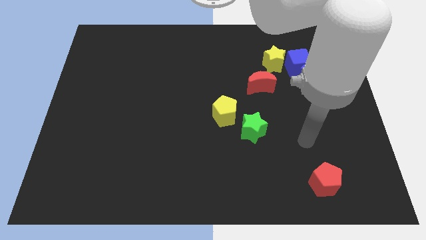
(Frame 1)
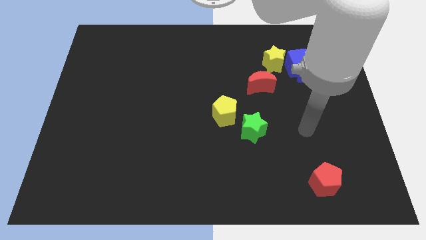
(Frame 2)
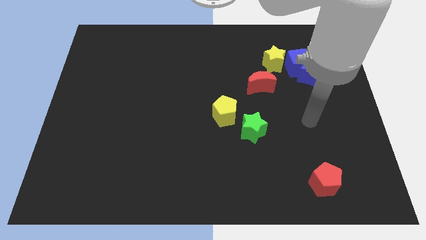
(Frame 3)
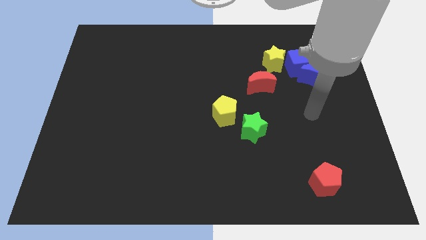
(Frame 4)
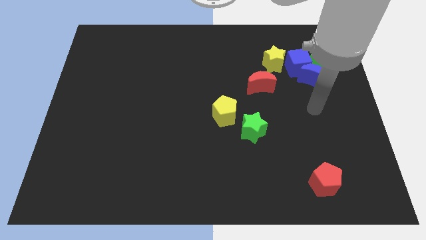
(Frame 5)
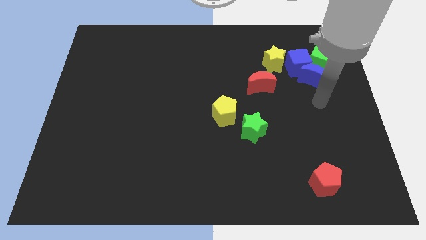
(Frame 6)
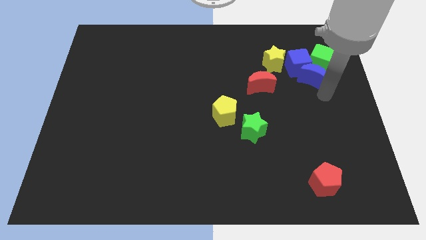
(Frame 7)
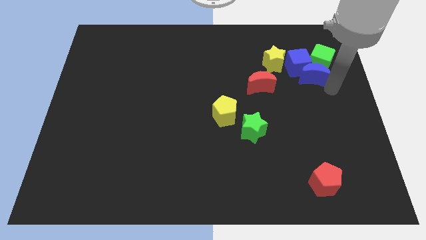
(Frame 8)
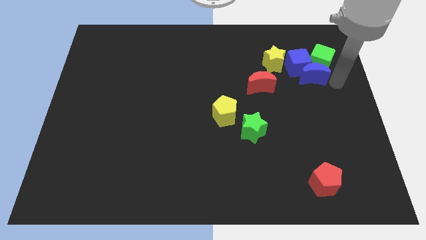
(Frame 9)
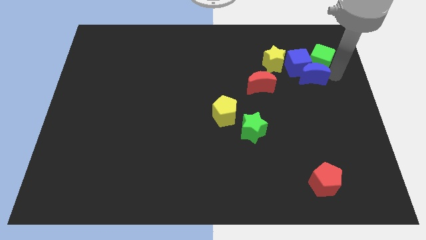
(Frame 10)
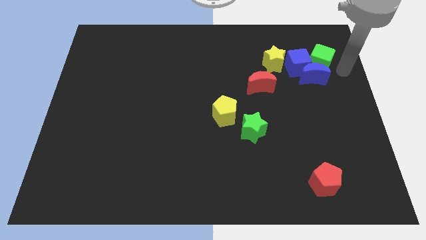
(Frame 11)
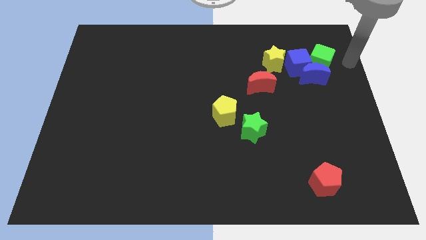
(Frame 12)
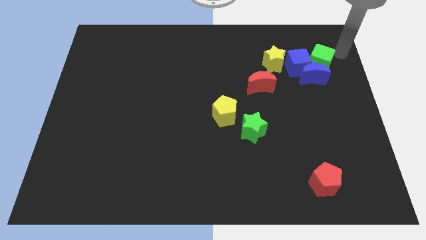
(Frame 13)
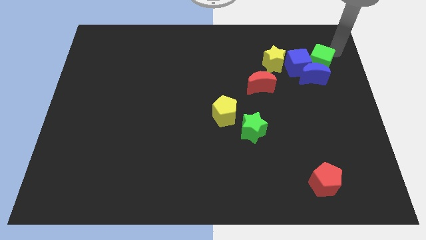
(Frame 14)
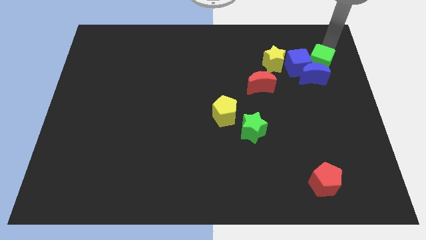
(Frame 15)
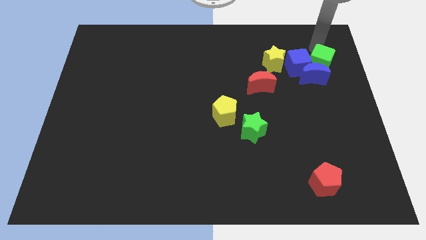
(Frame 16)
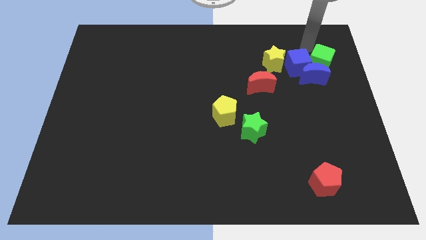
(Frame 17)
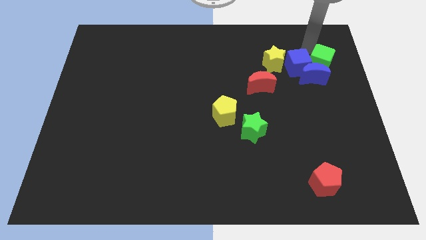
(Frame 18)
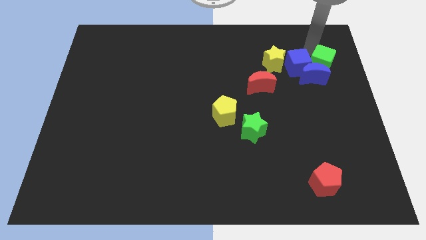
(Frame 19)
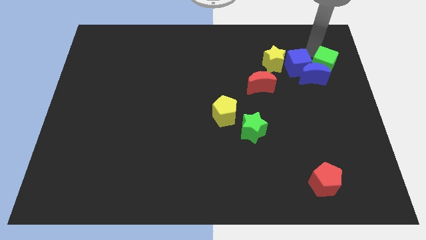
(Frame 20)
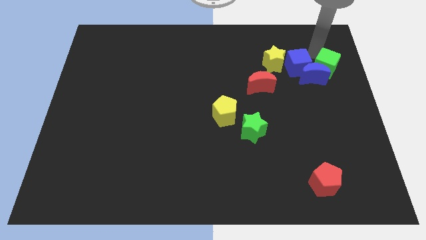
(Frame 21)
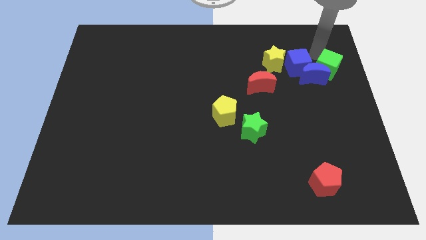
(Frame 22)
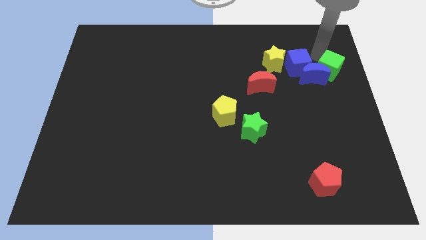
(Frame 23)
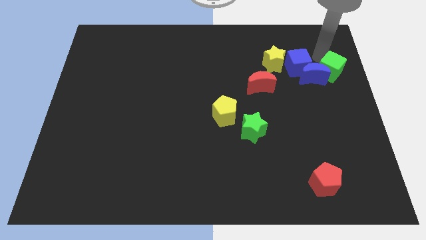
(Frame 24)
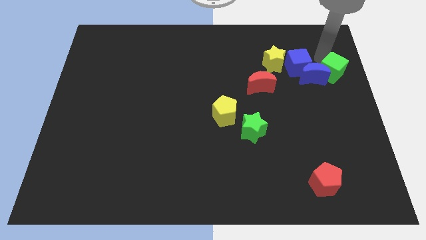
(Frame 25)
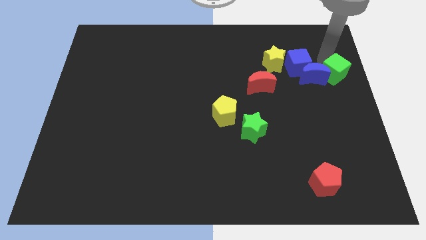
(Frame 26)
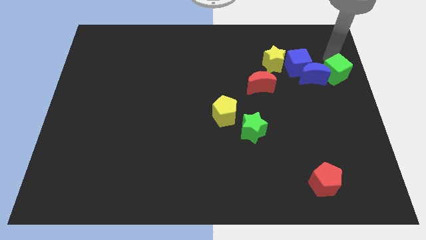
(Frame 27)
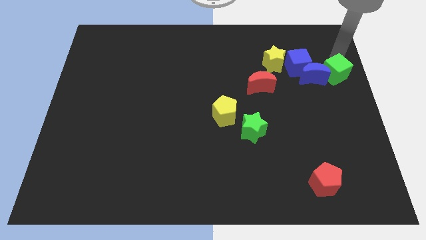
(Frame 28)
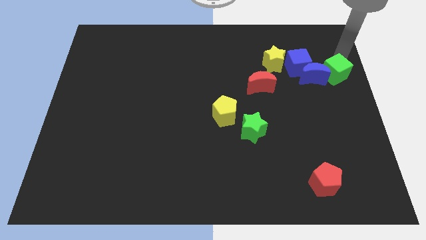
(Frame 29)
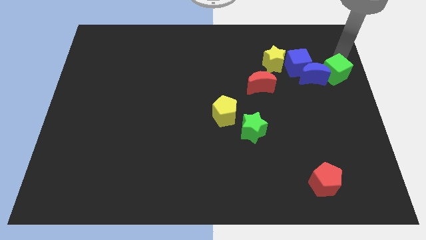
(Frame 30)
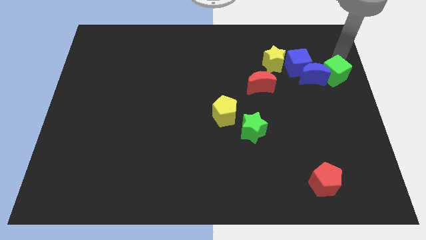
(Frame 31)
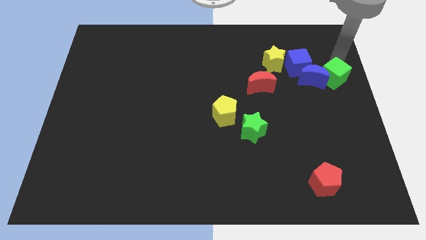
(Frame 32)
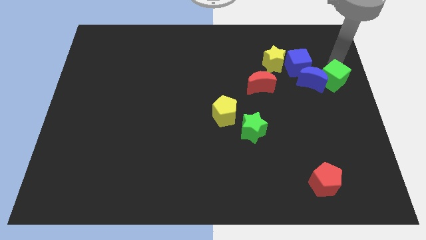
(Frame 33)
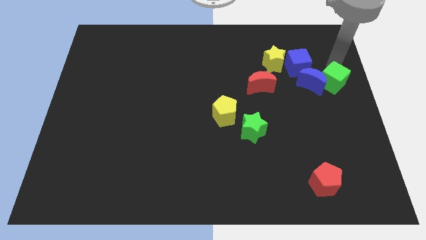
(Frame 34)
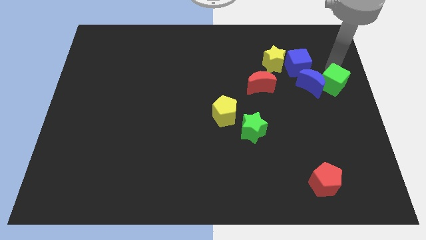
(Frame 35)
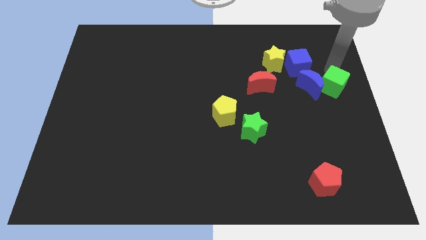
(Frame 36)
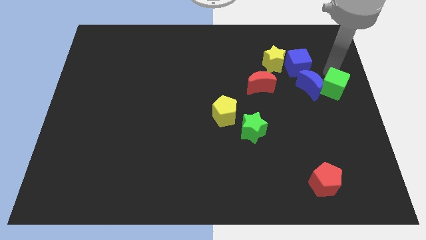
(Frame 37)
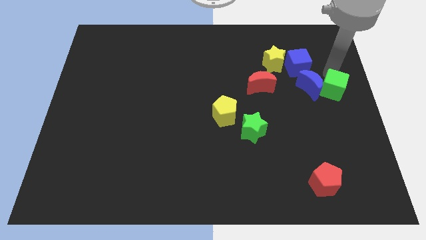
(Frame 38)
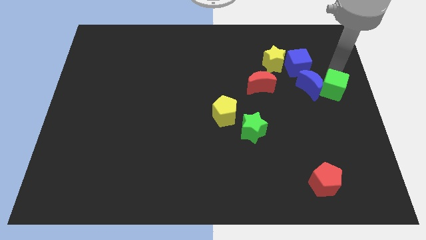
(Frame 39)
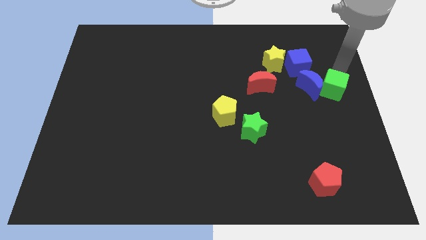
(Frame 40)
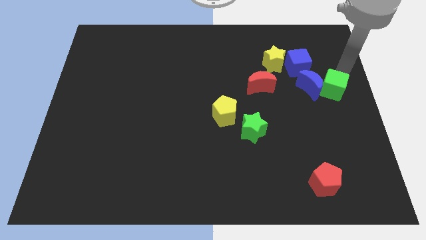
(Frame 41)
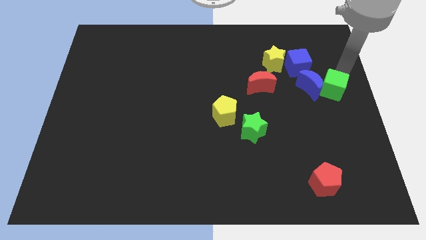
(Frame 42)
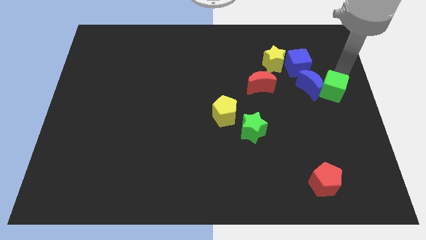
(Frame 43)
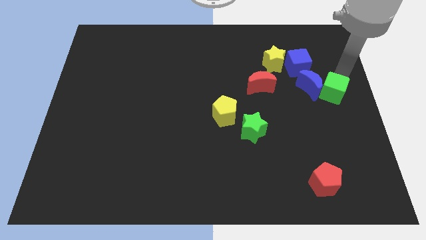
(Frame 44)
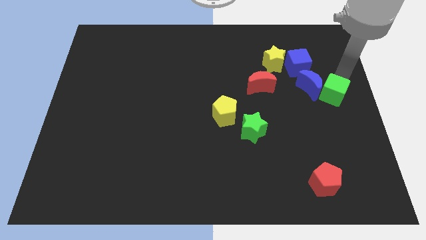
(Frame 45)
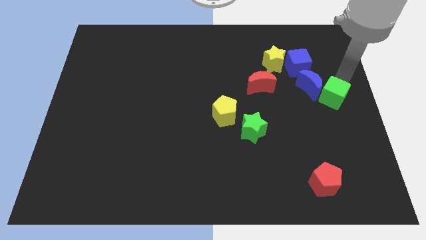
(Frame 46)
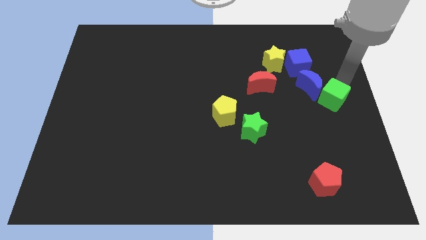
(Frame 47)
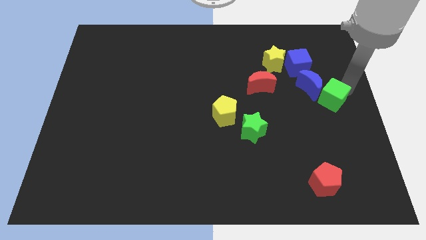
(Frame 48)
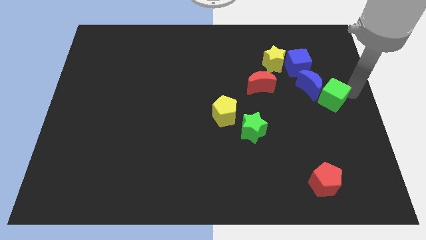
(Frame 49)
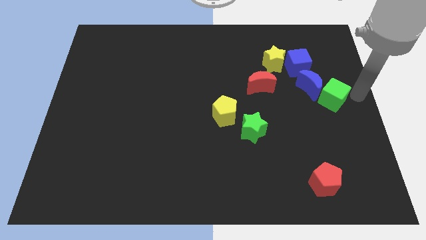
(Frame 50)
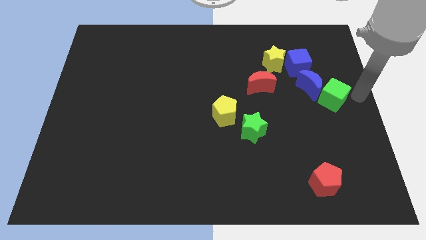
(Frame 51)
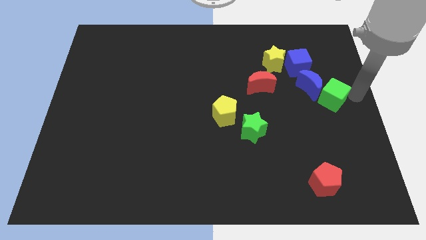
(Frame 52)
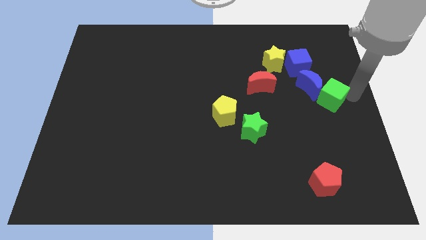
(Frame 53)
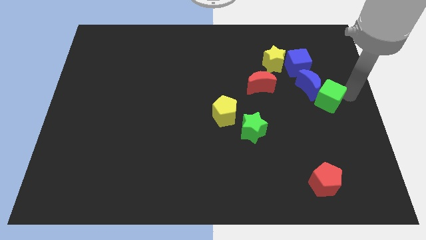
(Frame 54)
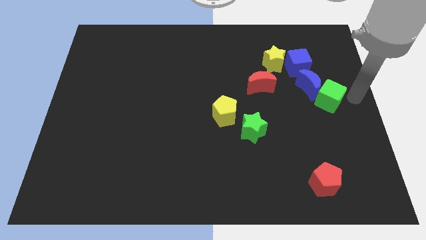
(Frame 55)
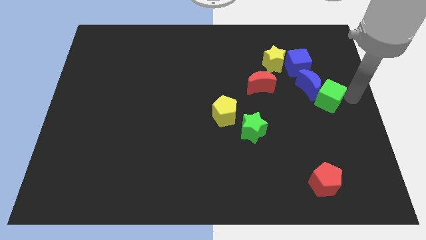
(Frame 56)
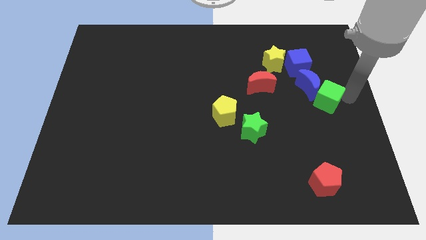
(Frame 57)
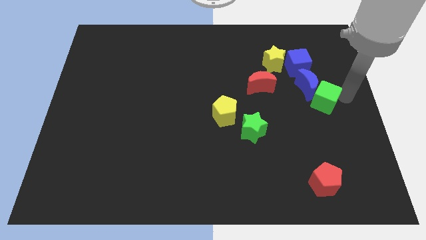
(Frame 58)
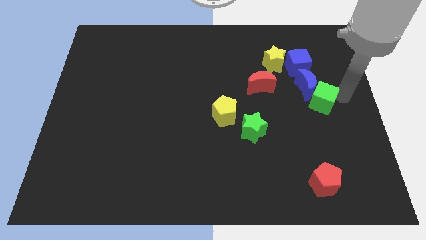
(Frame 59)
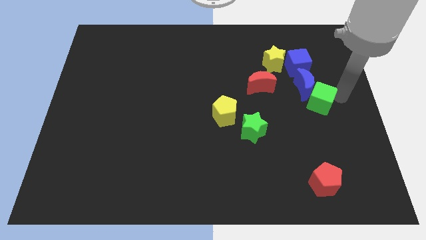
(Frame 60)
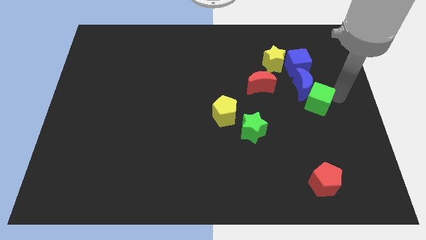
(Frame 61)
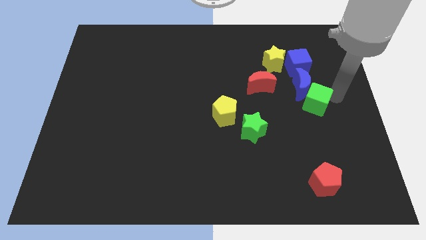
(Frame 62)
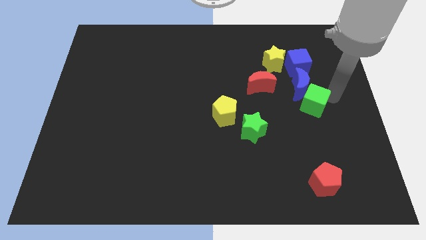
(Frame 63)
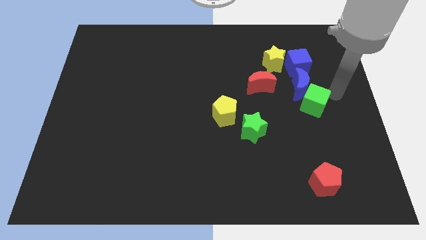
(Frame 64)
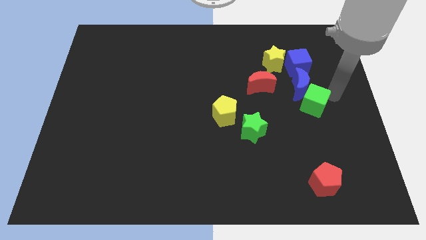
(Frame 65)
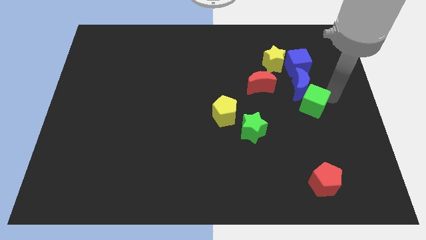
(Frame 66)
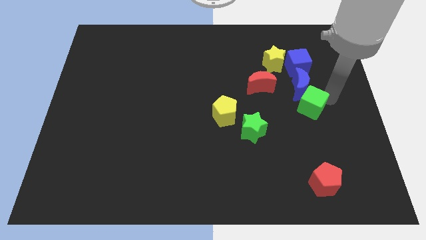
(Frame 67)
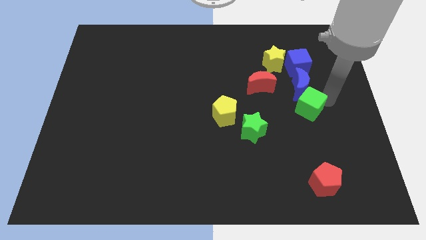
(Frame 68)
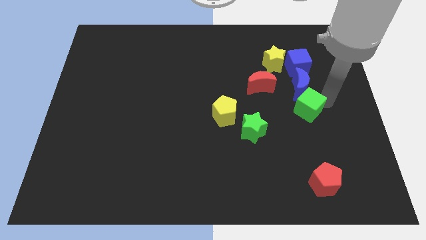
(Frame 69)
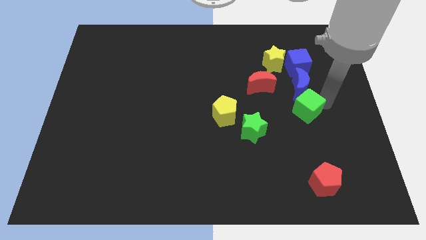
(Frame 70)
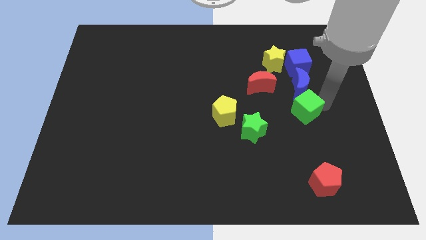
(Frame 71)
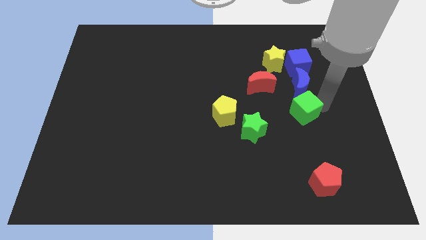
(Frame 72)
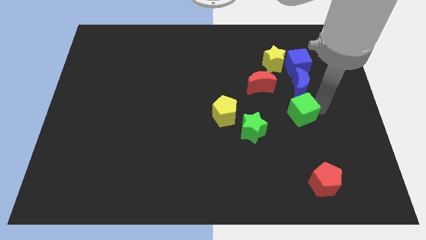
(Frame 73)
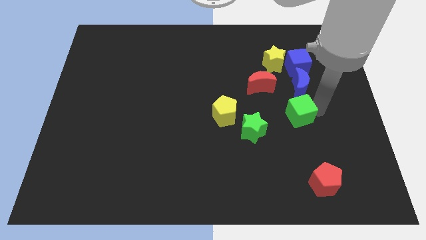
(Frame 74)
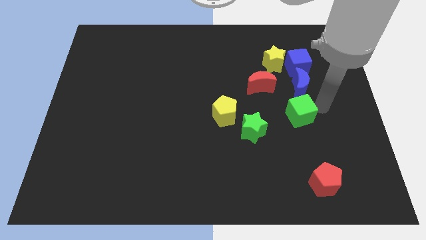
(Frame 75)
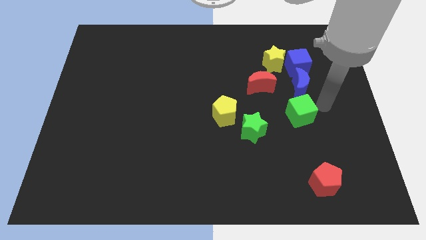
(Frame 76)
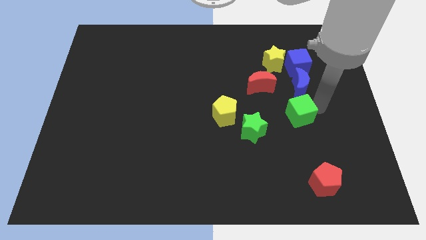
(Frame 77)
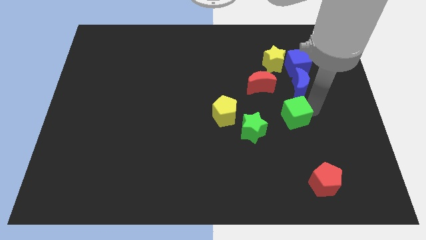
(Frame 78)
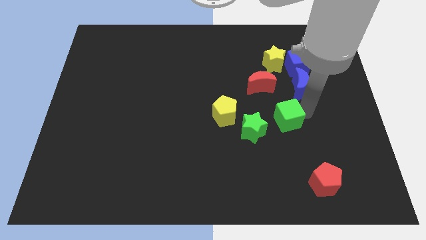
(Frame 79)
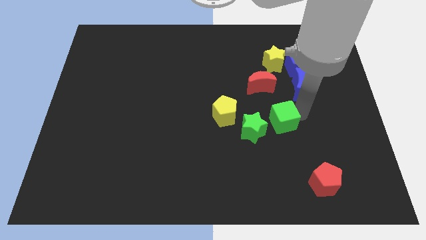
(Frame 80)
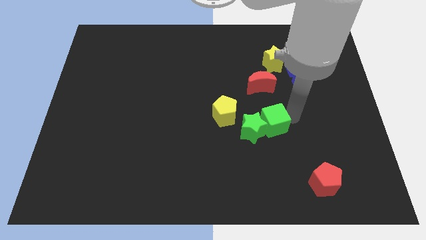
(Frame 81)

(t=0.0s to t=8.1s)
put the green cube next to the green star
